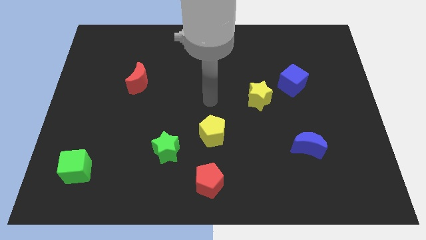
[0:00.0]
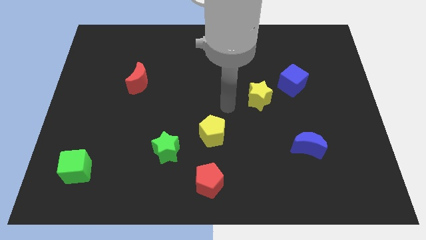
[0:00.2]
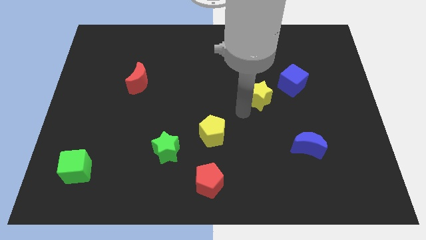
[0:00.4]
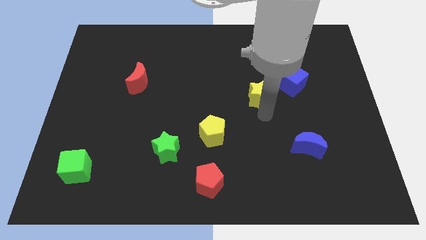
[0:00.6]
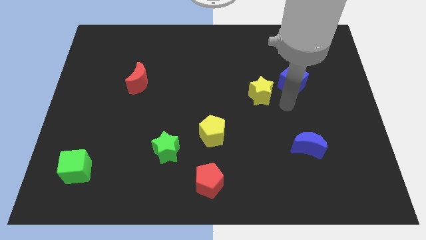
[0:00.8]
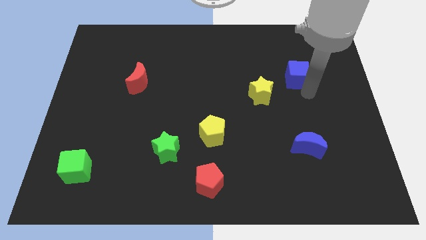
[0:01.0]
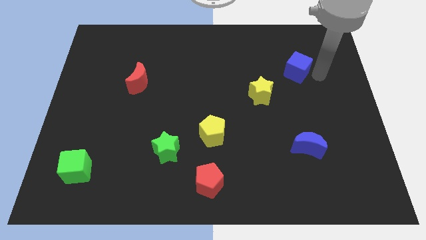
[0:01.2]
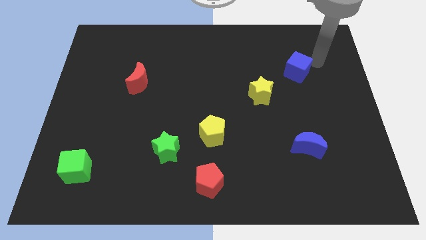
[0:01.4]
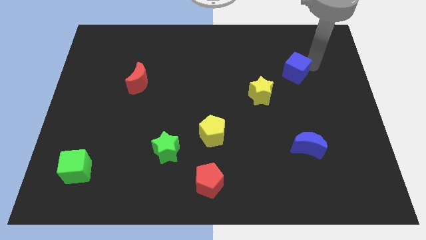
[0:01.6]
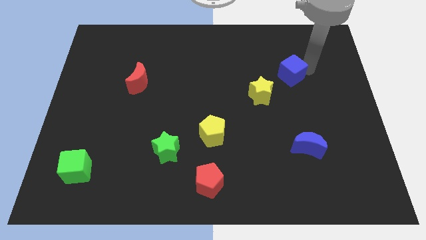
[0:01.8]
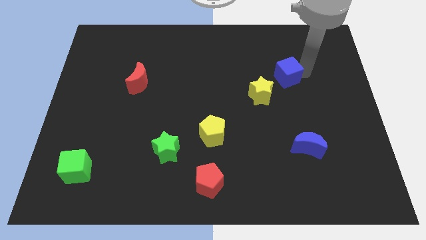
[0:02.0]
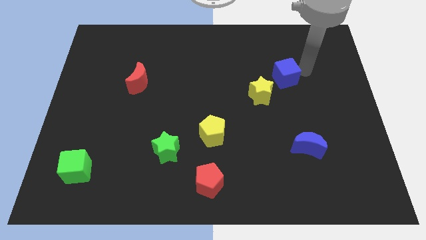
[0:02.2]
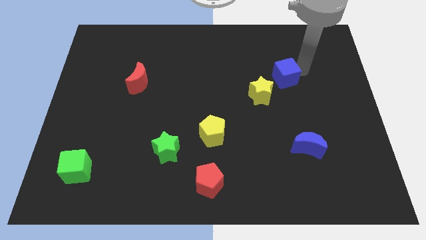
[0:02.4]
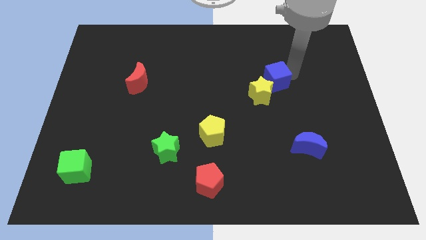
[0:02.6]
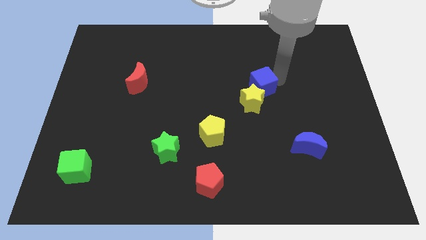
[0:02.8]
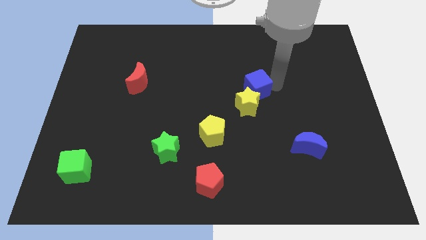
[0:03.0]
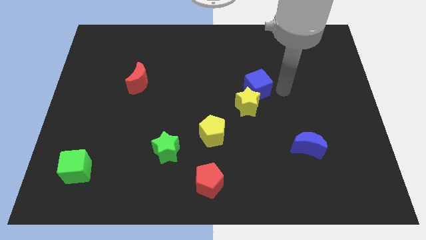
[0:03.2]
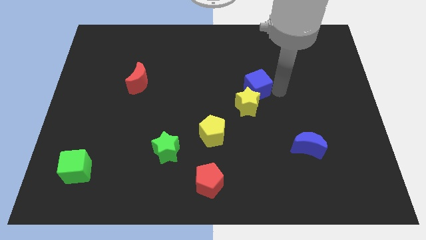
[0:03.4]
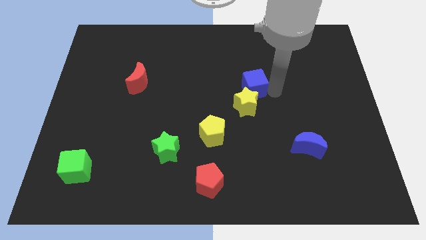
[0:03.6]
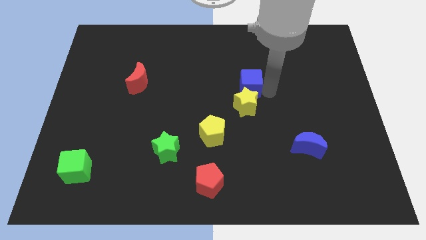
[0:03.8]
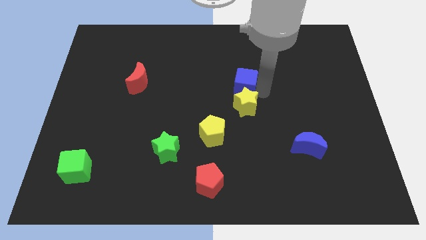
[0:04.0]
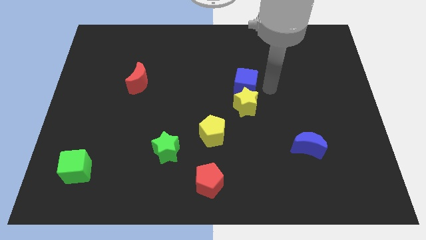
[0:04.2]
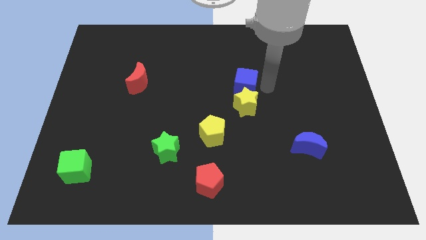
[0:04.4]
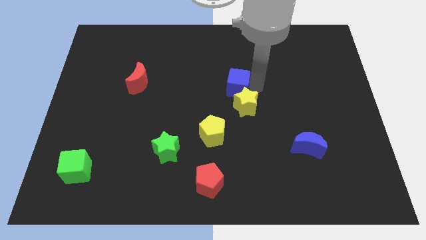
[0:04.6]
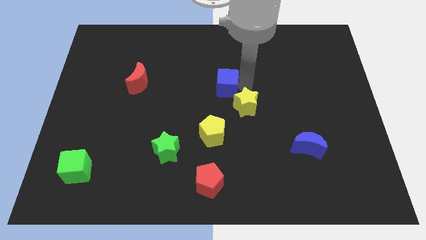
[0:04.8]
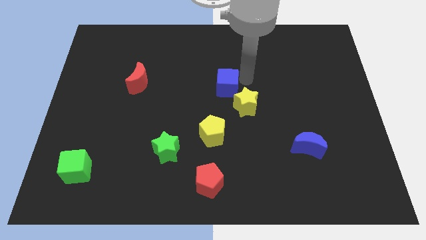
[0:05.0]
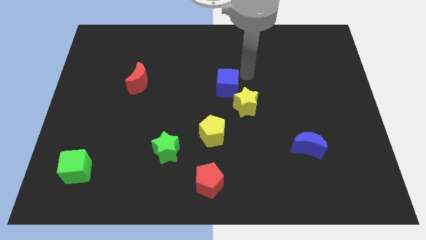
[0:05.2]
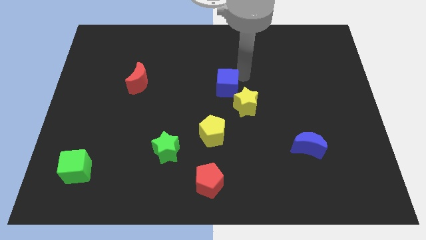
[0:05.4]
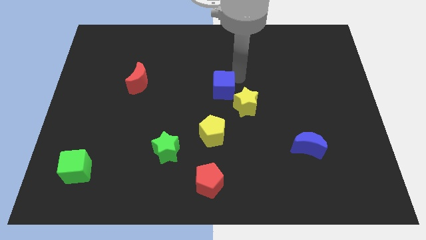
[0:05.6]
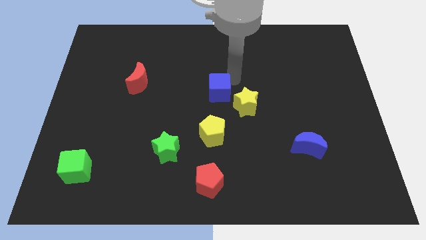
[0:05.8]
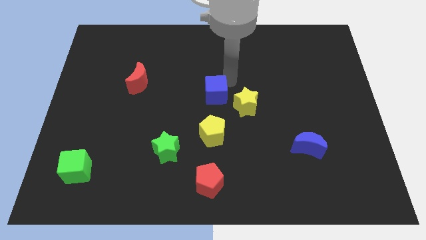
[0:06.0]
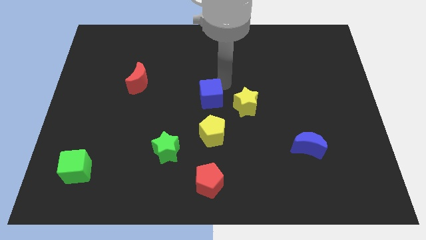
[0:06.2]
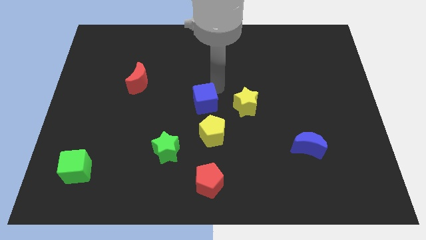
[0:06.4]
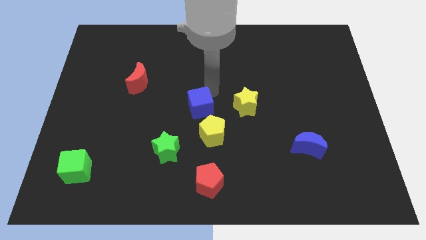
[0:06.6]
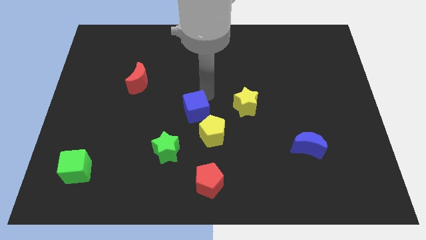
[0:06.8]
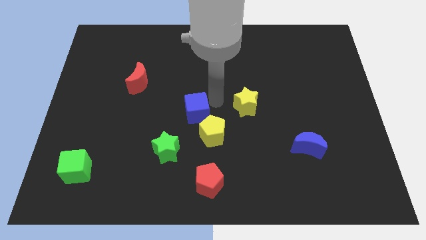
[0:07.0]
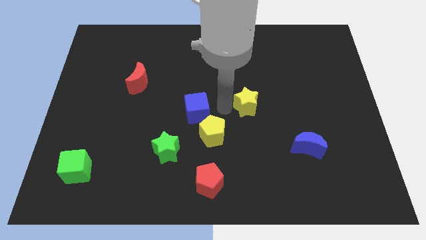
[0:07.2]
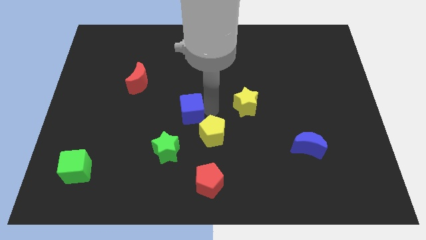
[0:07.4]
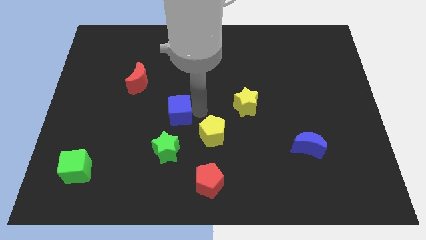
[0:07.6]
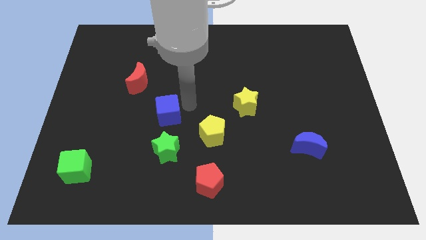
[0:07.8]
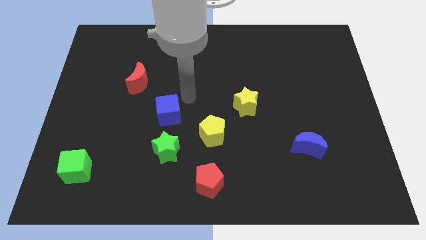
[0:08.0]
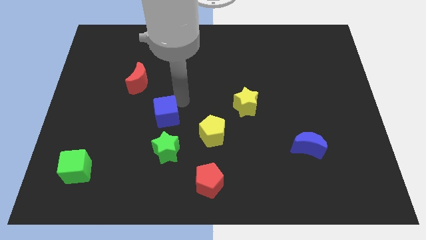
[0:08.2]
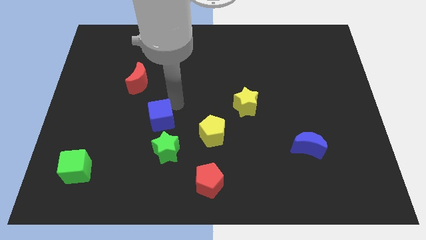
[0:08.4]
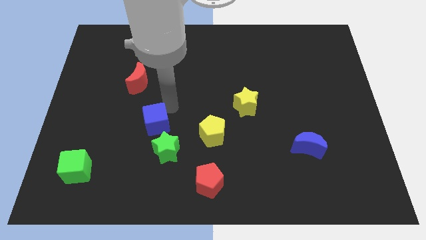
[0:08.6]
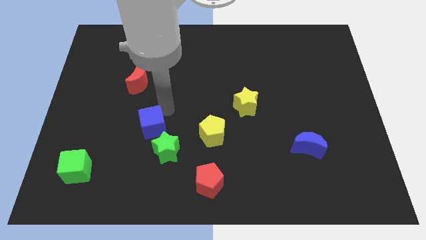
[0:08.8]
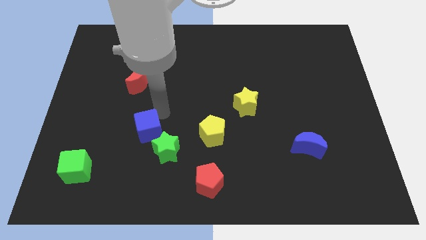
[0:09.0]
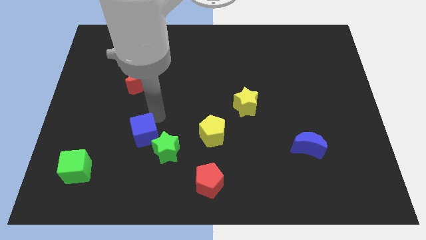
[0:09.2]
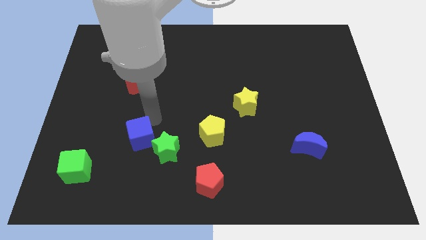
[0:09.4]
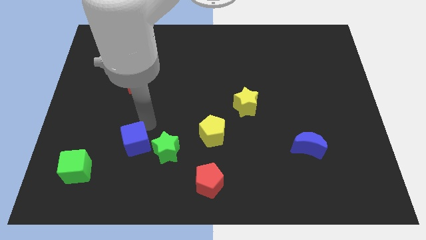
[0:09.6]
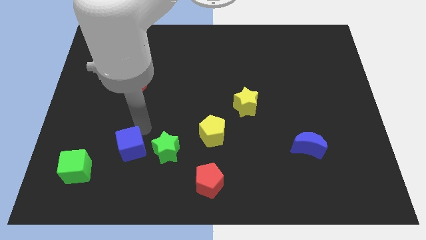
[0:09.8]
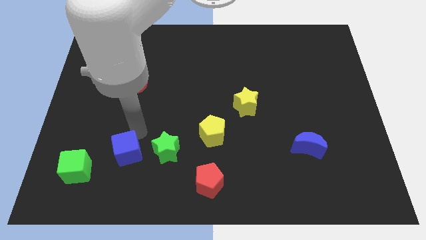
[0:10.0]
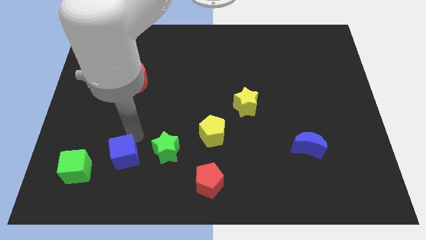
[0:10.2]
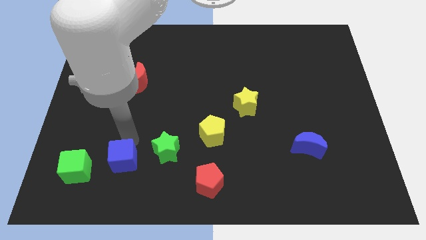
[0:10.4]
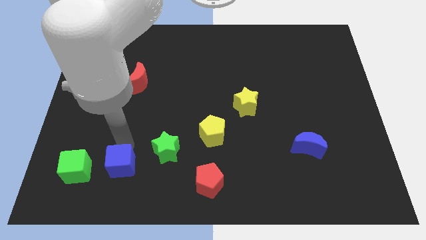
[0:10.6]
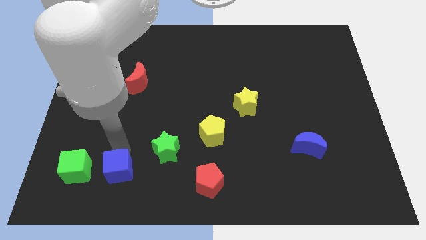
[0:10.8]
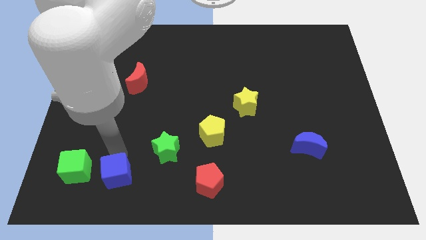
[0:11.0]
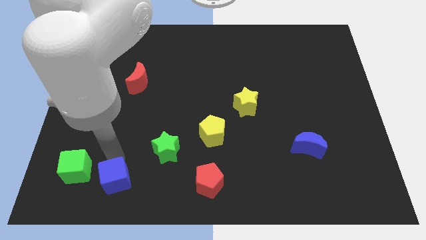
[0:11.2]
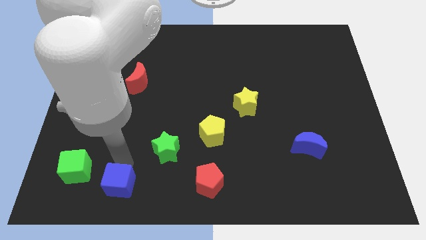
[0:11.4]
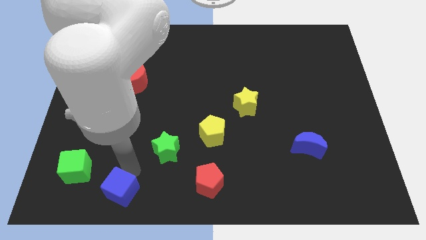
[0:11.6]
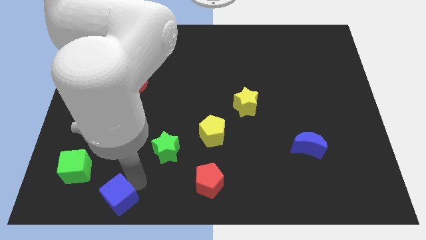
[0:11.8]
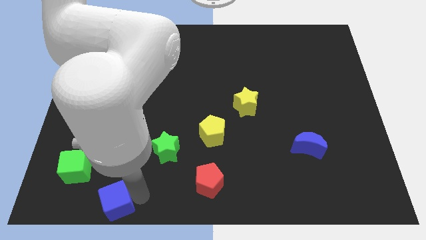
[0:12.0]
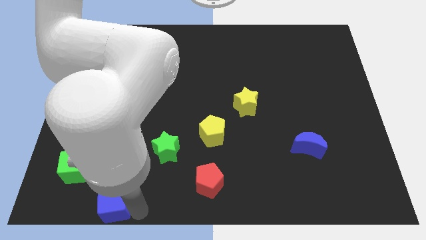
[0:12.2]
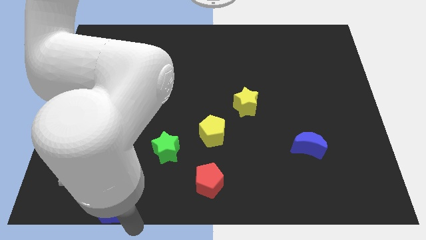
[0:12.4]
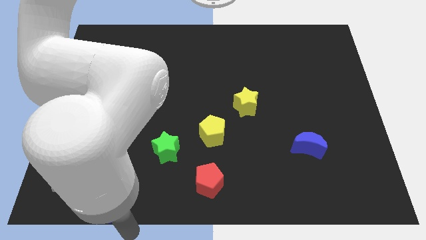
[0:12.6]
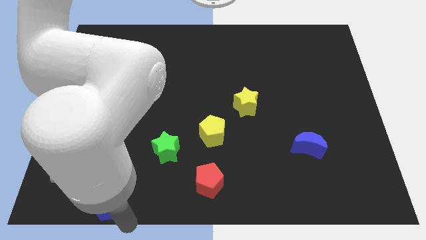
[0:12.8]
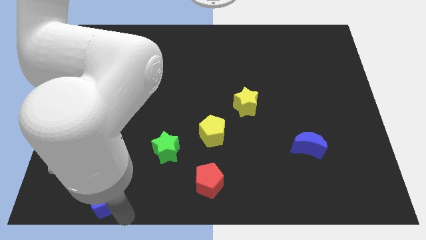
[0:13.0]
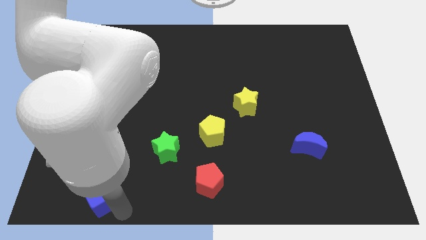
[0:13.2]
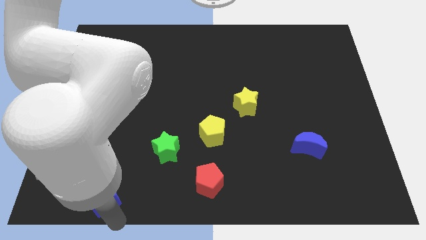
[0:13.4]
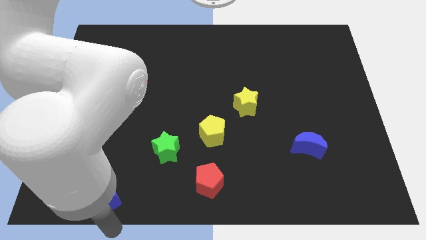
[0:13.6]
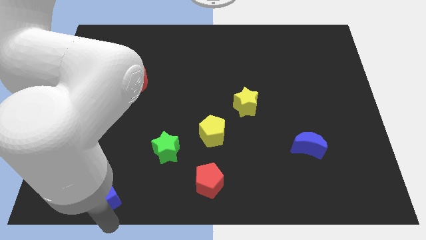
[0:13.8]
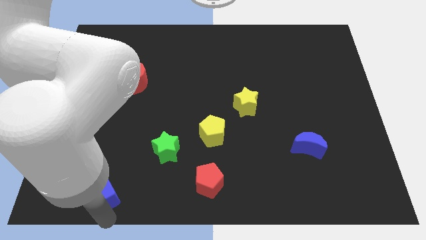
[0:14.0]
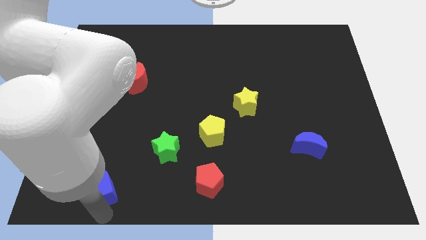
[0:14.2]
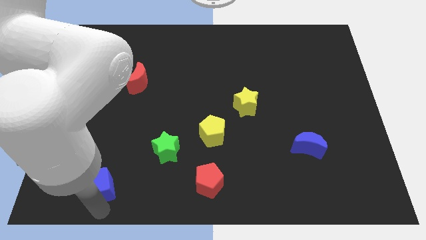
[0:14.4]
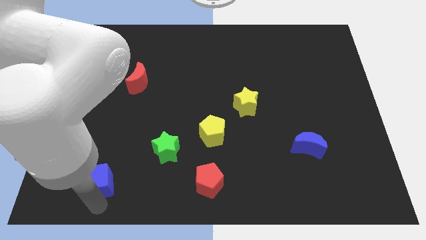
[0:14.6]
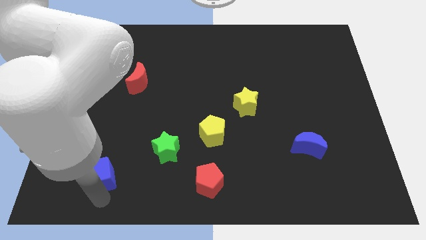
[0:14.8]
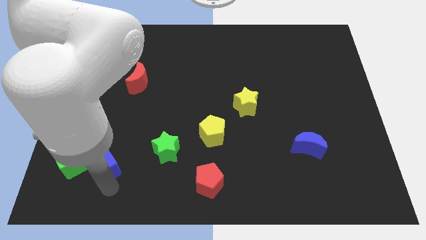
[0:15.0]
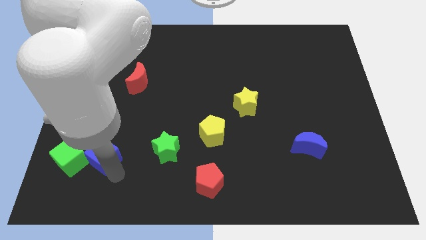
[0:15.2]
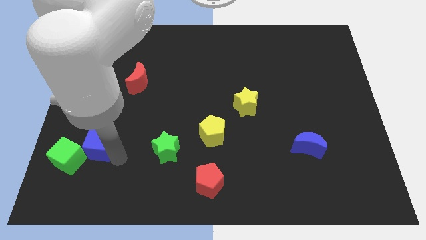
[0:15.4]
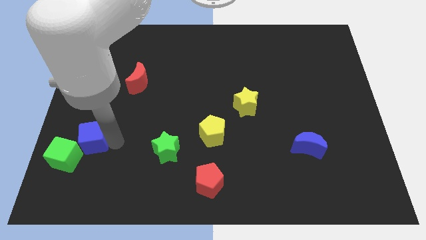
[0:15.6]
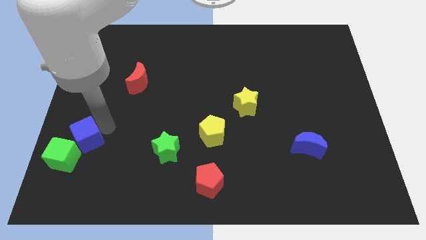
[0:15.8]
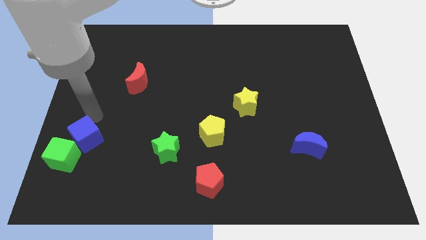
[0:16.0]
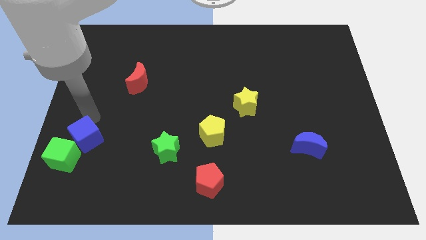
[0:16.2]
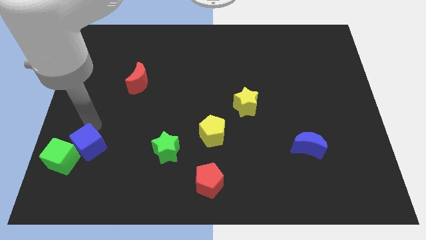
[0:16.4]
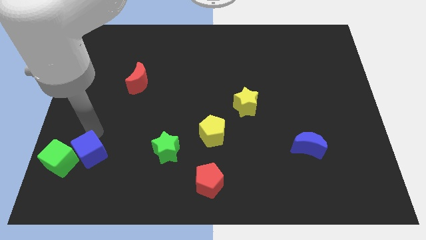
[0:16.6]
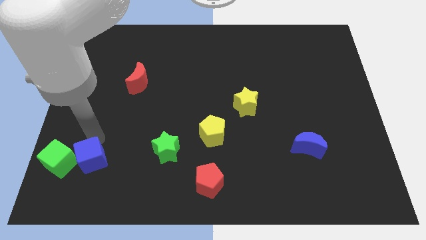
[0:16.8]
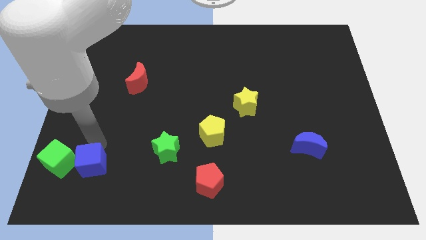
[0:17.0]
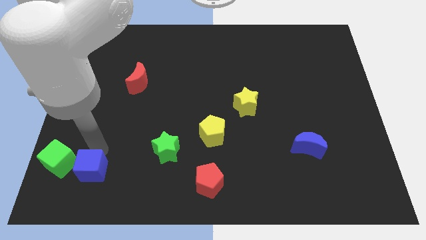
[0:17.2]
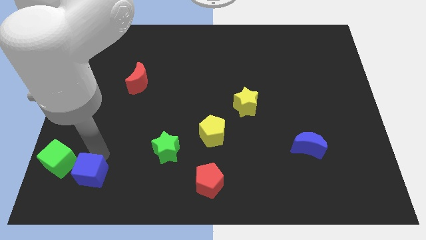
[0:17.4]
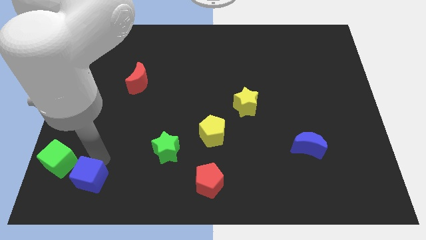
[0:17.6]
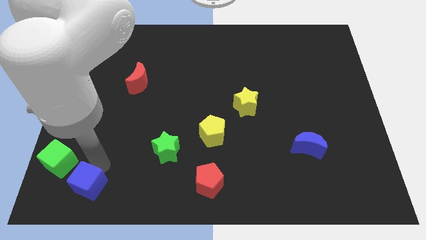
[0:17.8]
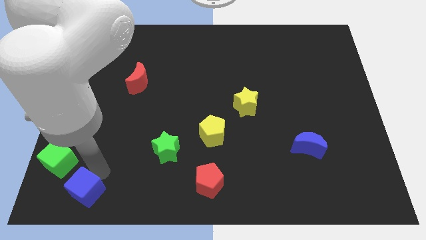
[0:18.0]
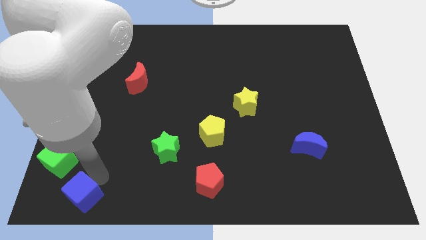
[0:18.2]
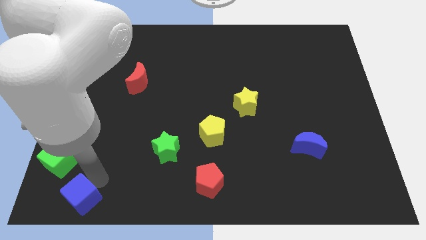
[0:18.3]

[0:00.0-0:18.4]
push the blue cube to the bottom left corner
